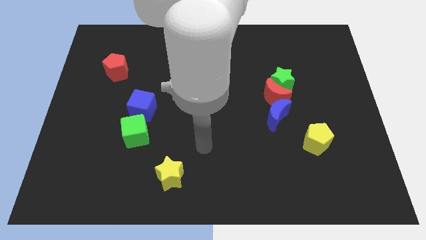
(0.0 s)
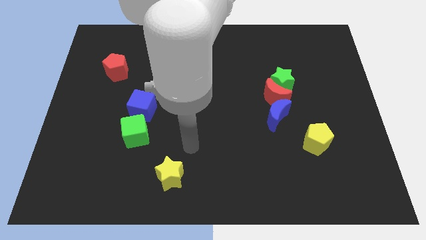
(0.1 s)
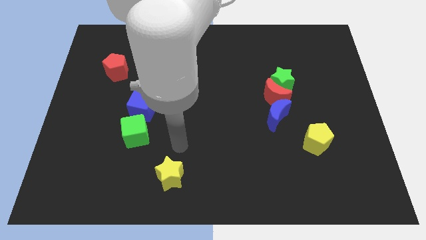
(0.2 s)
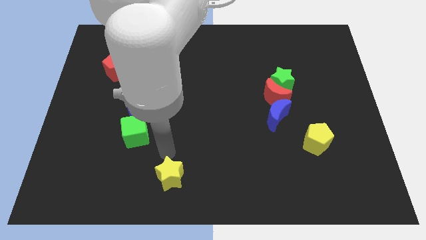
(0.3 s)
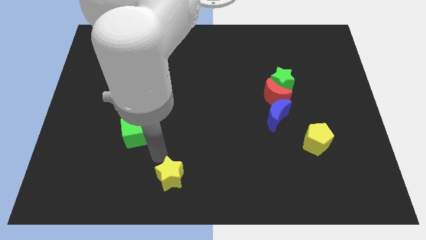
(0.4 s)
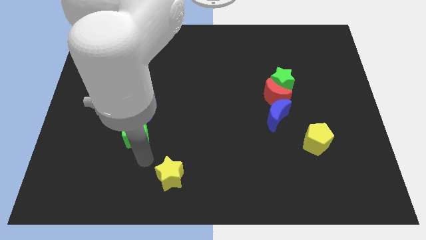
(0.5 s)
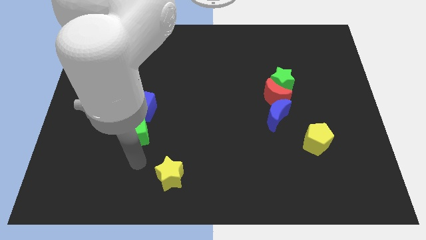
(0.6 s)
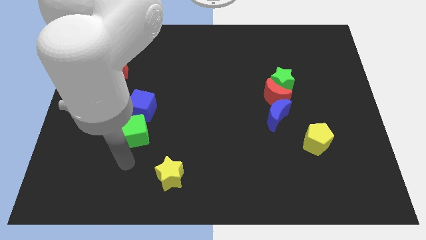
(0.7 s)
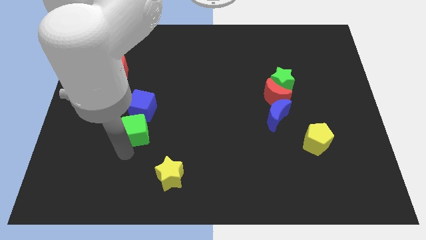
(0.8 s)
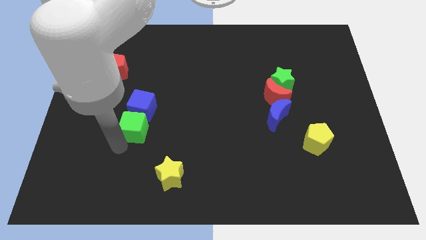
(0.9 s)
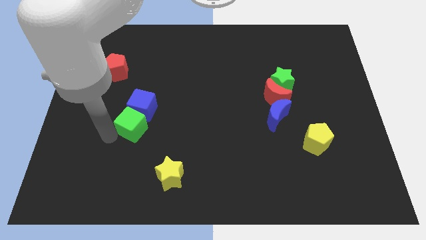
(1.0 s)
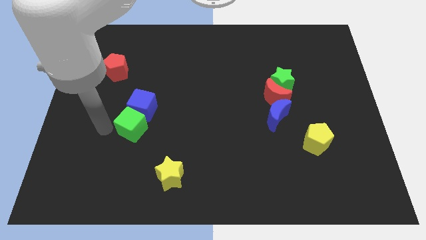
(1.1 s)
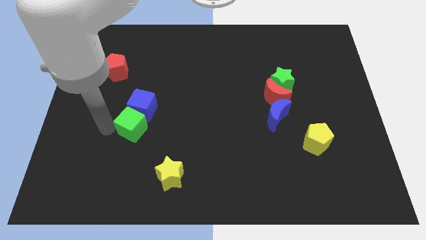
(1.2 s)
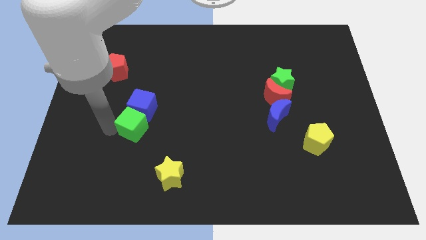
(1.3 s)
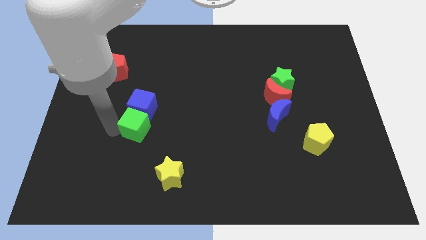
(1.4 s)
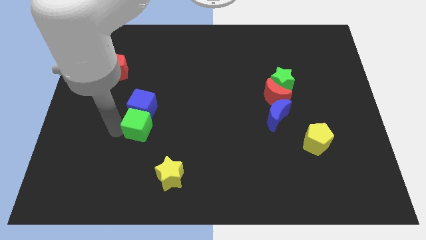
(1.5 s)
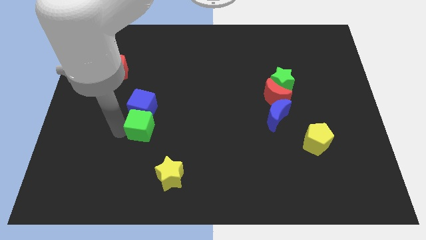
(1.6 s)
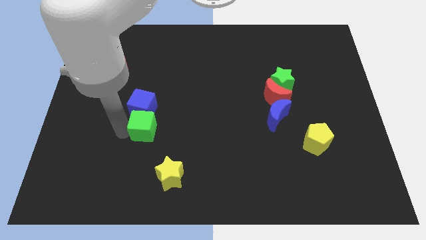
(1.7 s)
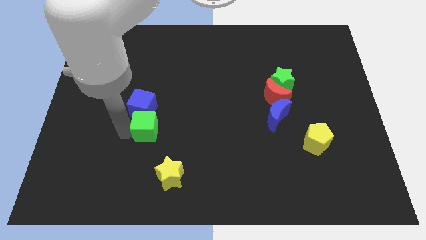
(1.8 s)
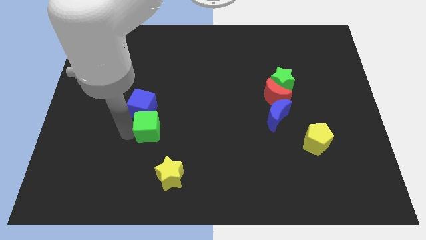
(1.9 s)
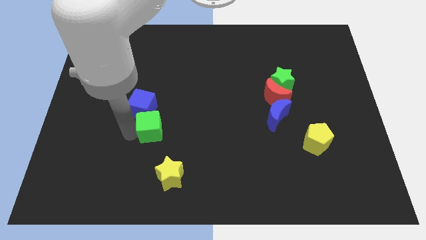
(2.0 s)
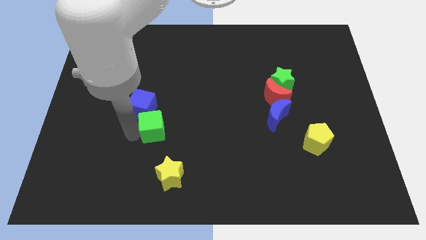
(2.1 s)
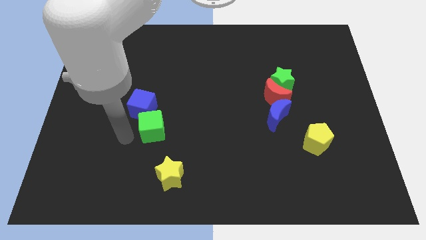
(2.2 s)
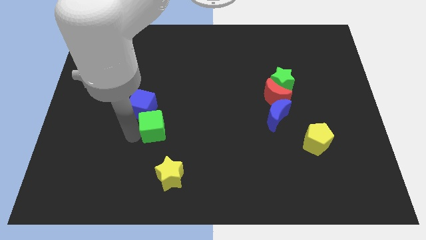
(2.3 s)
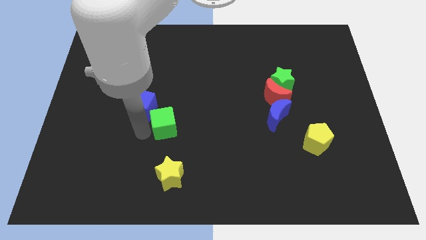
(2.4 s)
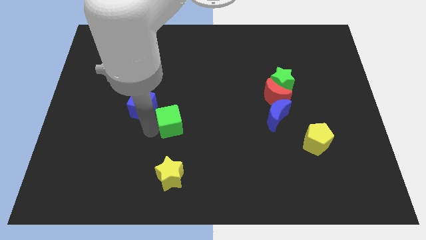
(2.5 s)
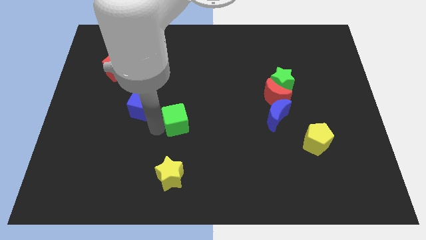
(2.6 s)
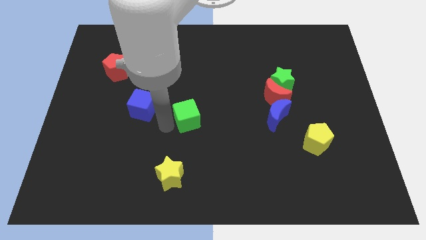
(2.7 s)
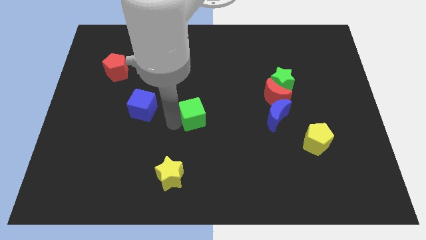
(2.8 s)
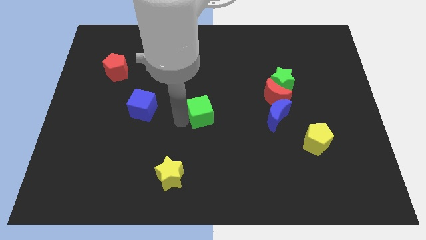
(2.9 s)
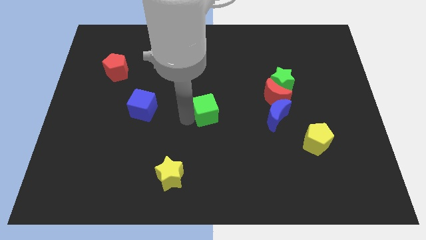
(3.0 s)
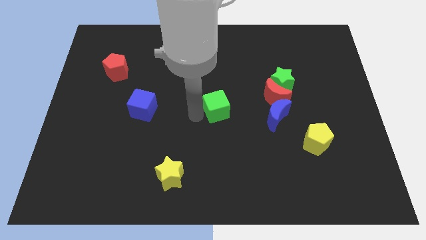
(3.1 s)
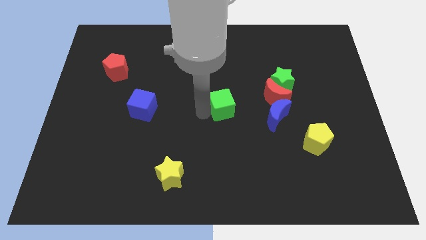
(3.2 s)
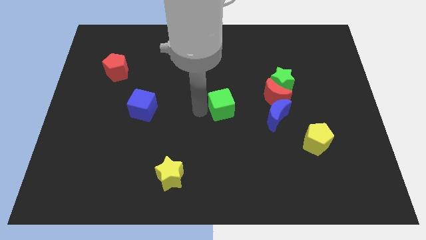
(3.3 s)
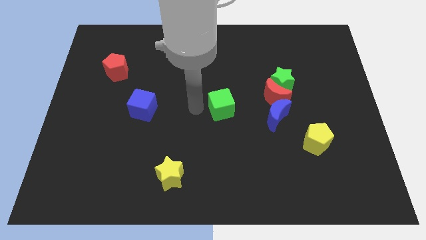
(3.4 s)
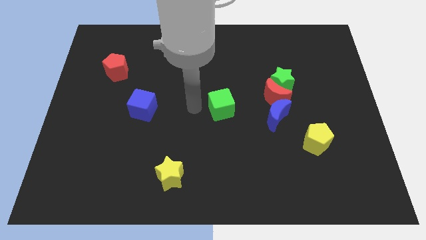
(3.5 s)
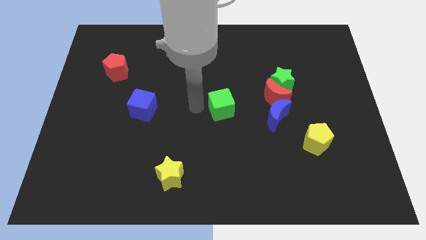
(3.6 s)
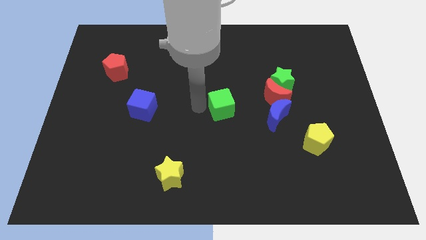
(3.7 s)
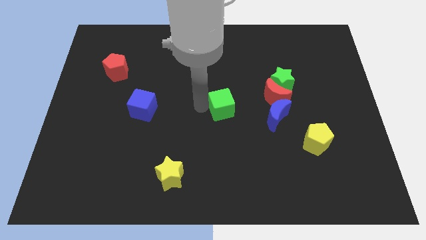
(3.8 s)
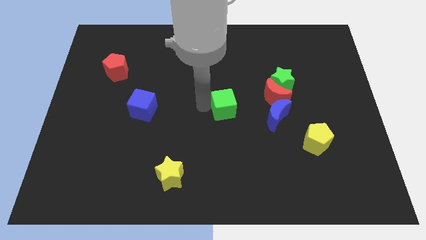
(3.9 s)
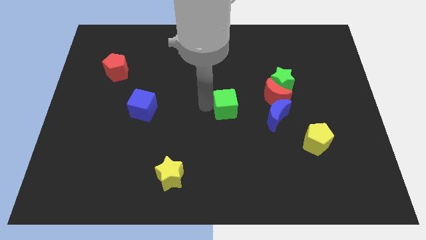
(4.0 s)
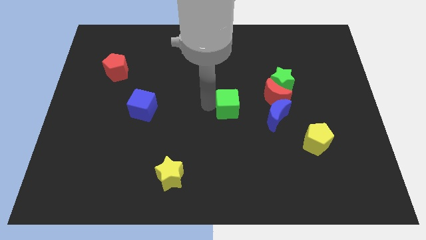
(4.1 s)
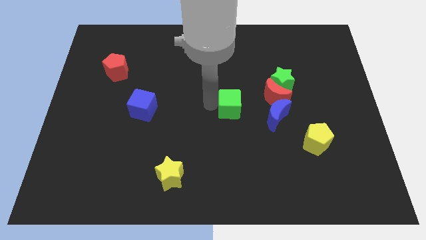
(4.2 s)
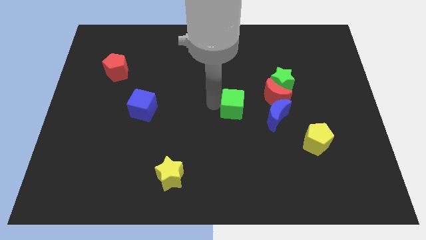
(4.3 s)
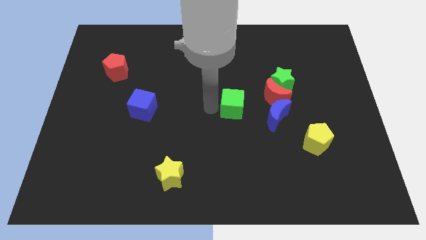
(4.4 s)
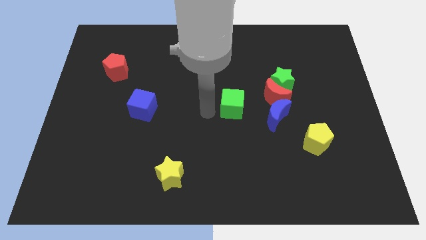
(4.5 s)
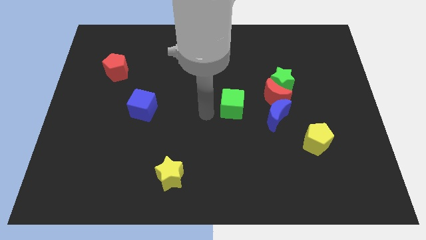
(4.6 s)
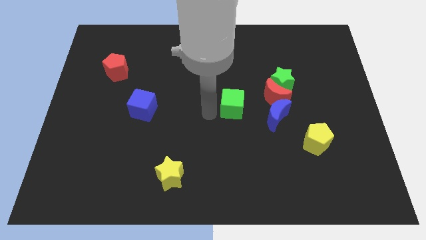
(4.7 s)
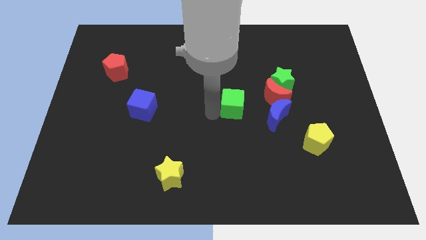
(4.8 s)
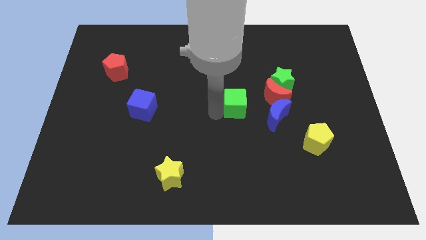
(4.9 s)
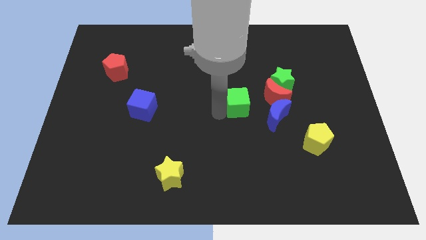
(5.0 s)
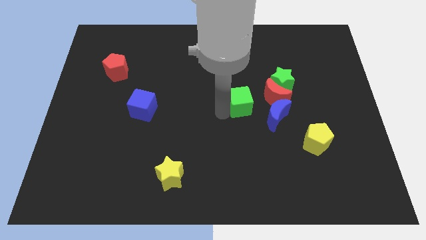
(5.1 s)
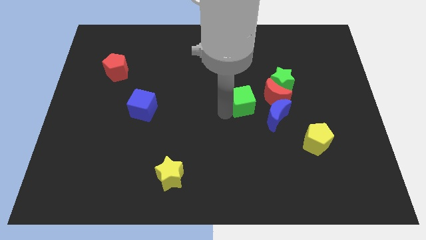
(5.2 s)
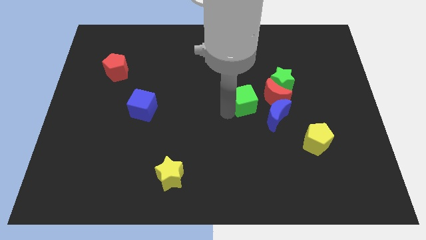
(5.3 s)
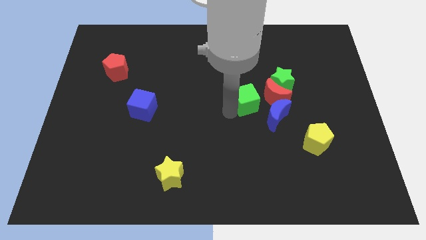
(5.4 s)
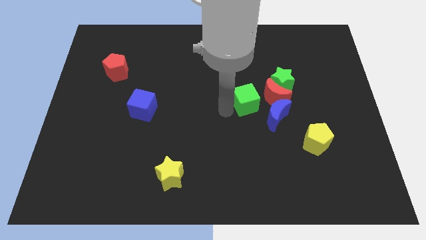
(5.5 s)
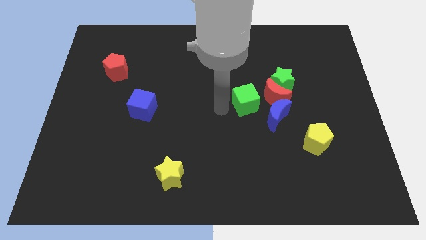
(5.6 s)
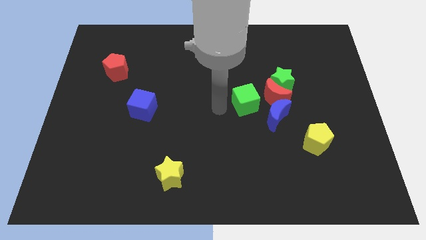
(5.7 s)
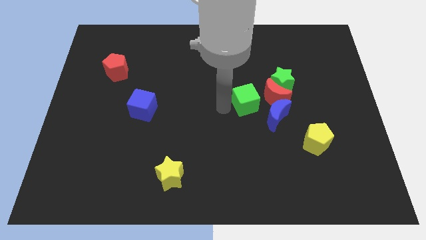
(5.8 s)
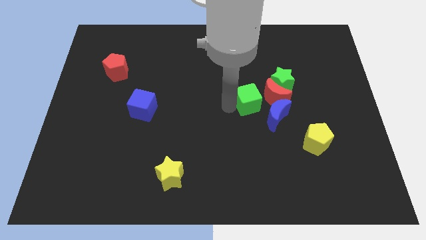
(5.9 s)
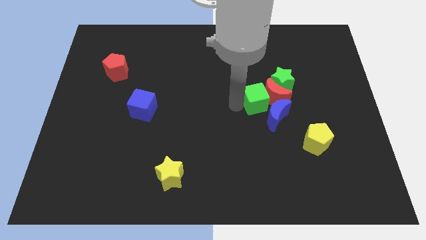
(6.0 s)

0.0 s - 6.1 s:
put the green cube towards the red moon
